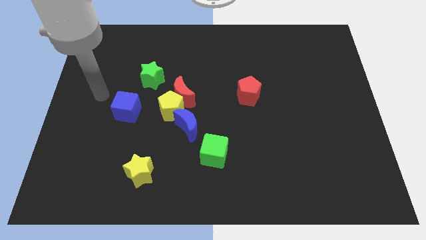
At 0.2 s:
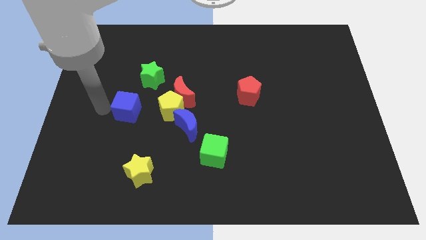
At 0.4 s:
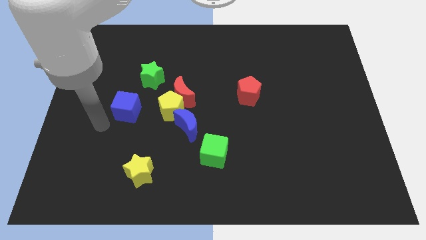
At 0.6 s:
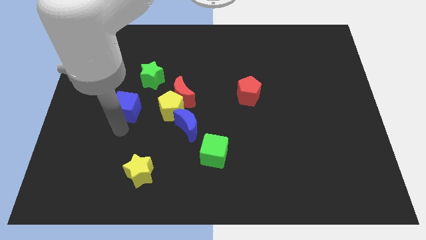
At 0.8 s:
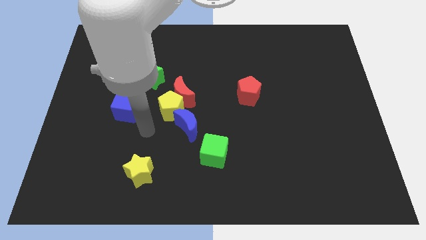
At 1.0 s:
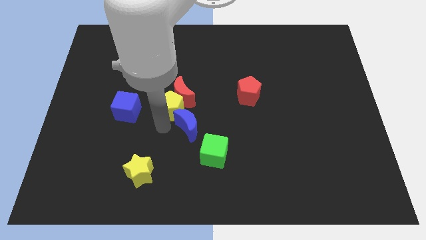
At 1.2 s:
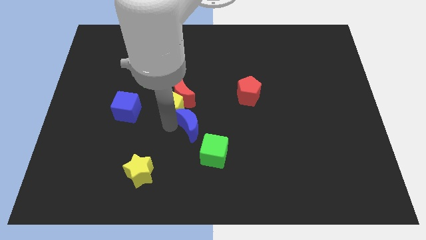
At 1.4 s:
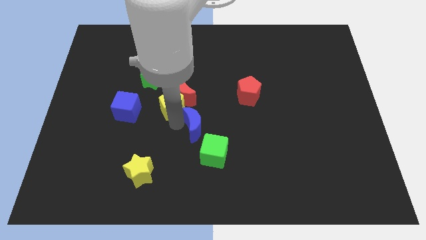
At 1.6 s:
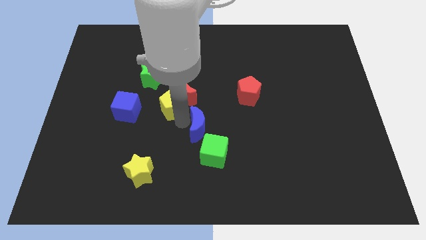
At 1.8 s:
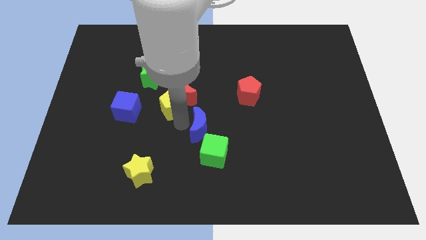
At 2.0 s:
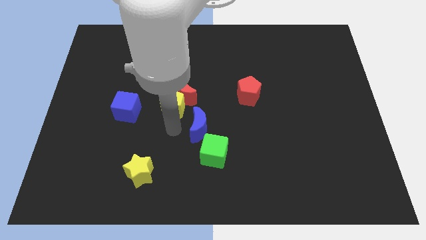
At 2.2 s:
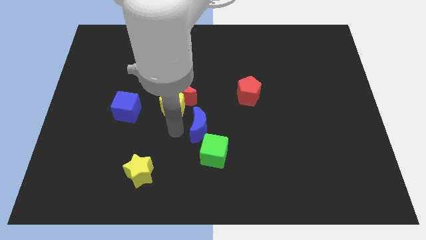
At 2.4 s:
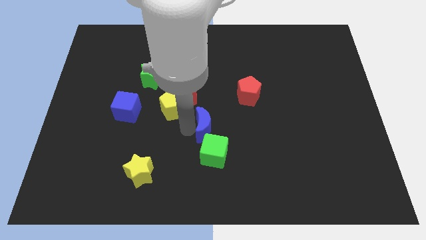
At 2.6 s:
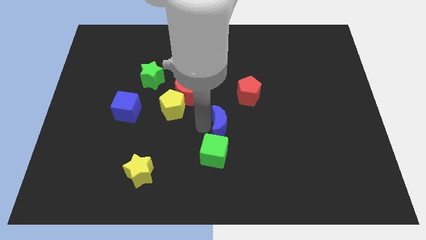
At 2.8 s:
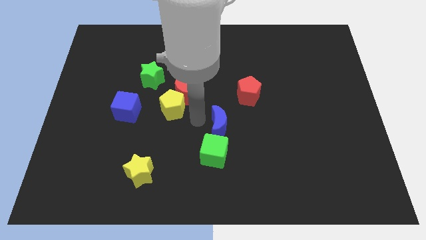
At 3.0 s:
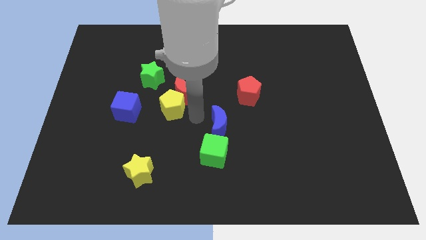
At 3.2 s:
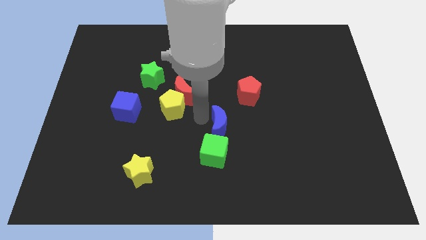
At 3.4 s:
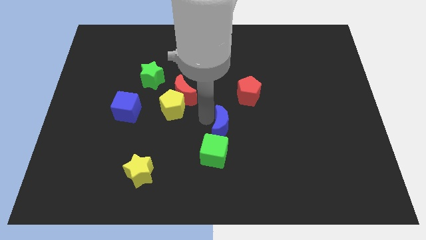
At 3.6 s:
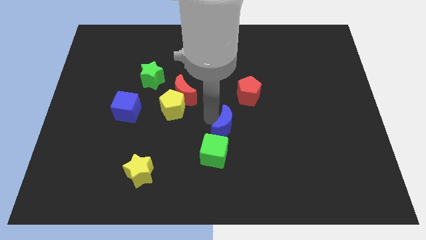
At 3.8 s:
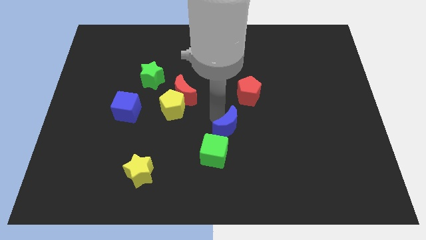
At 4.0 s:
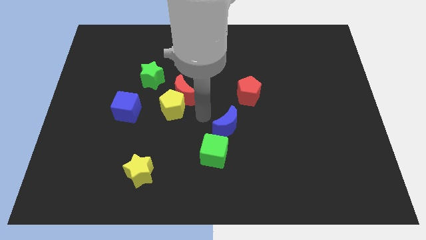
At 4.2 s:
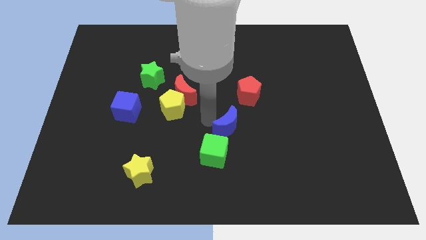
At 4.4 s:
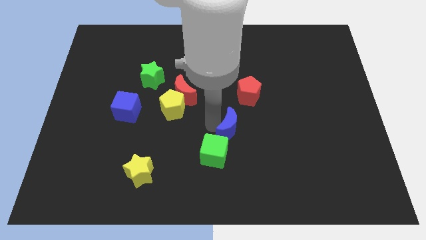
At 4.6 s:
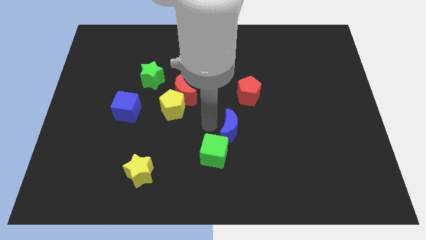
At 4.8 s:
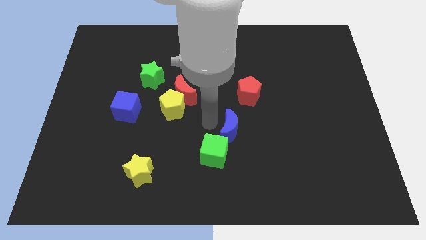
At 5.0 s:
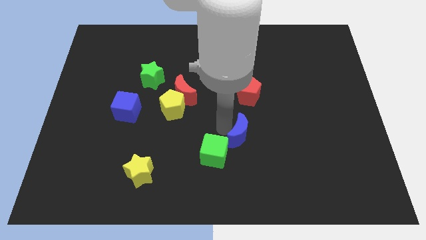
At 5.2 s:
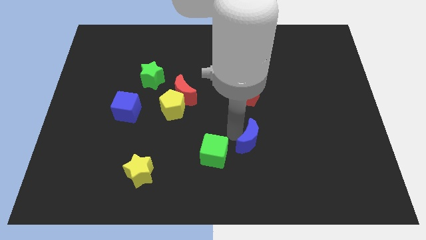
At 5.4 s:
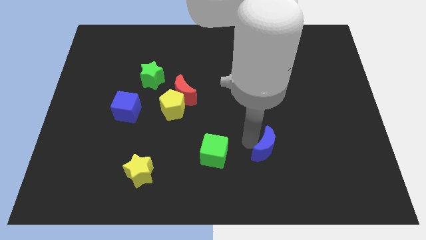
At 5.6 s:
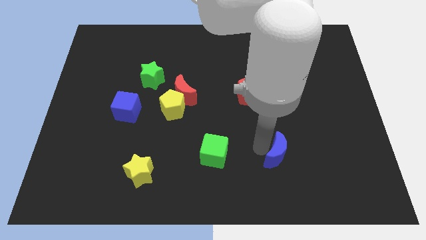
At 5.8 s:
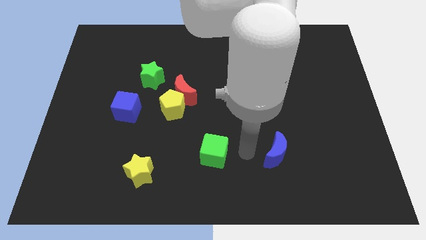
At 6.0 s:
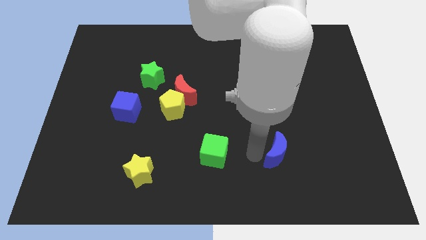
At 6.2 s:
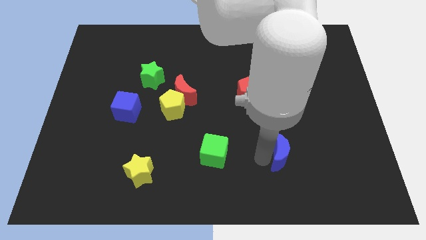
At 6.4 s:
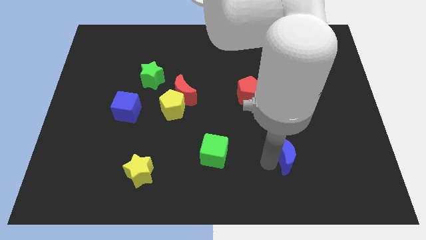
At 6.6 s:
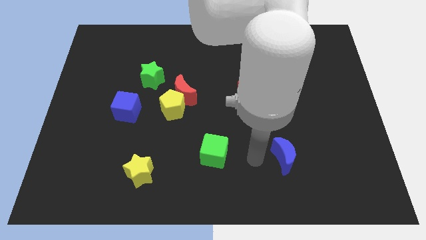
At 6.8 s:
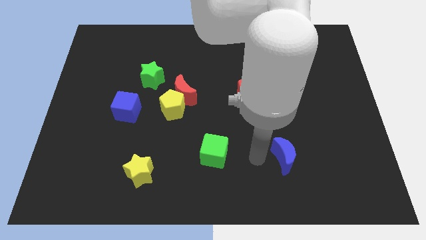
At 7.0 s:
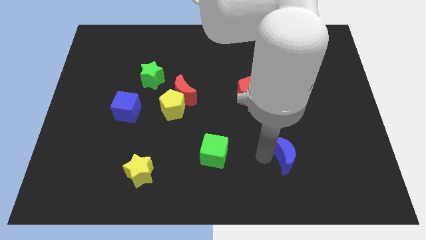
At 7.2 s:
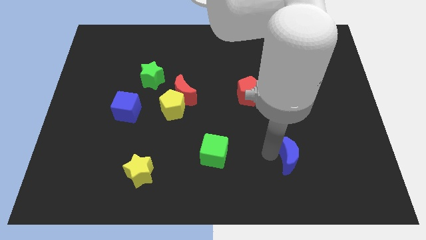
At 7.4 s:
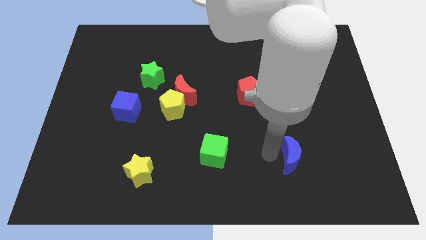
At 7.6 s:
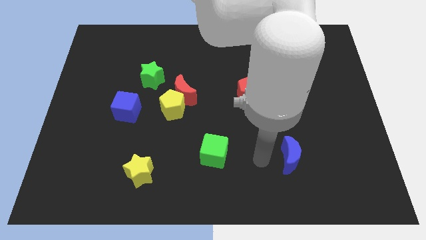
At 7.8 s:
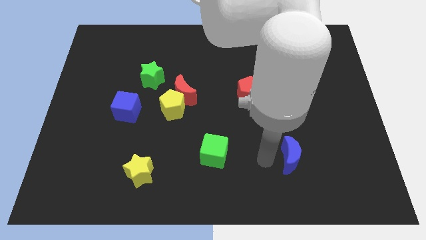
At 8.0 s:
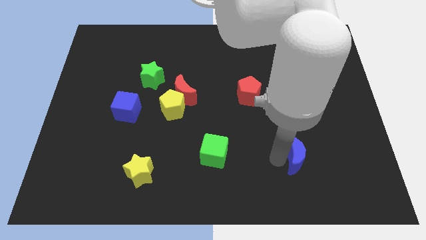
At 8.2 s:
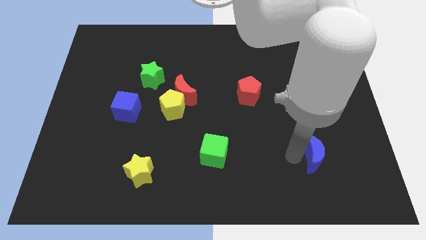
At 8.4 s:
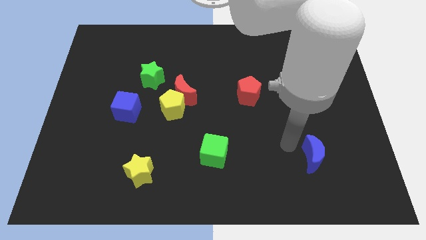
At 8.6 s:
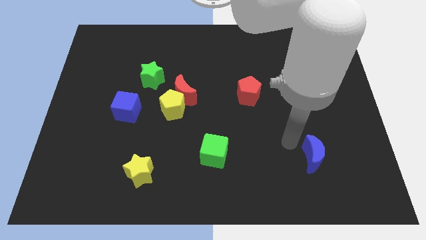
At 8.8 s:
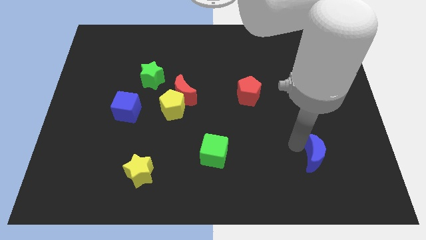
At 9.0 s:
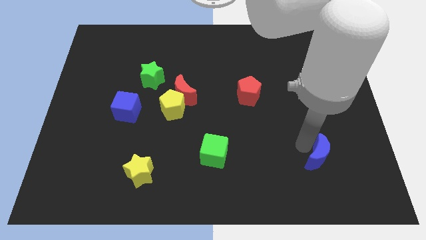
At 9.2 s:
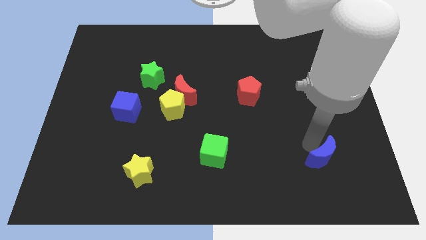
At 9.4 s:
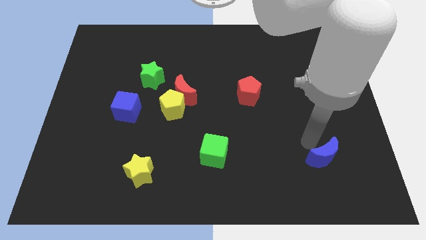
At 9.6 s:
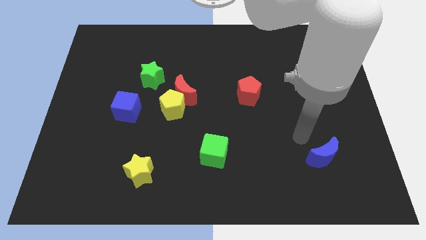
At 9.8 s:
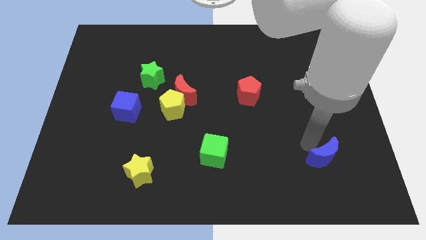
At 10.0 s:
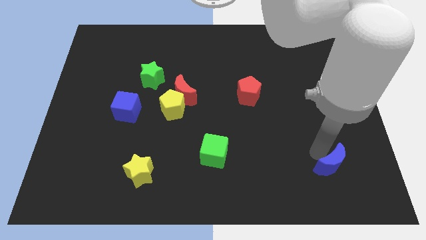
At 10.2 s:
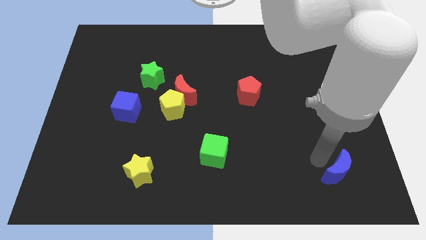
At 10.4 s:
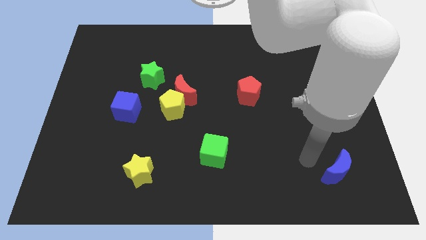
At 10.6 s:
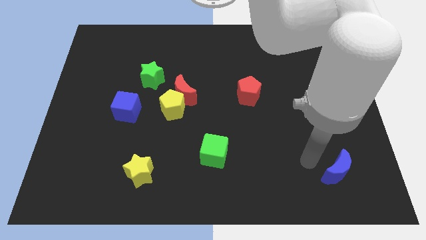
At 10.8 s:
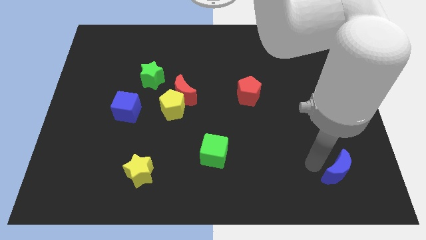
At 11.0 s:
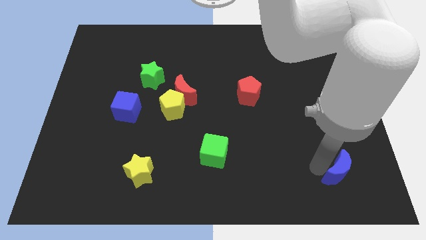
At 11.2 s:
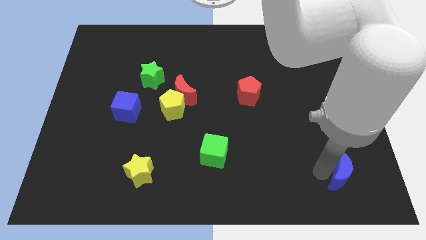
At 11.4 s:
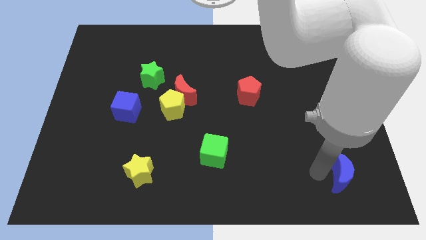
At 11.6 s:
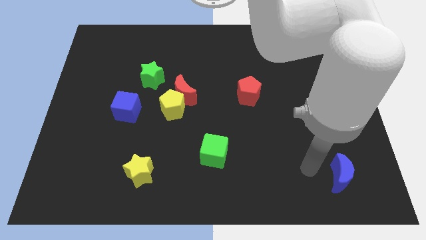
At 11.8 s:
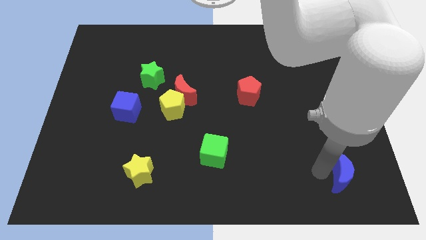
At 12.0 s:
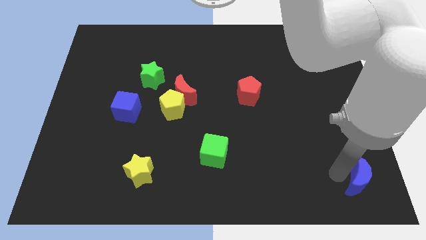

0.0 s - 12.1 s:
put the blue moon to the bottom right
